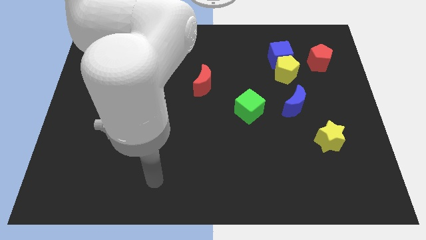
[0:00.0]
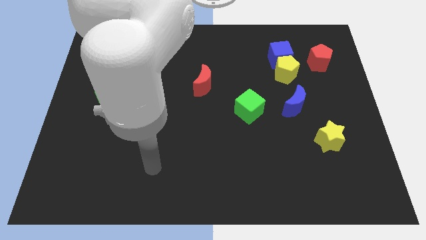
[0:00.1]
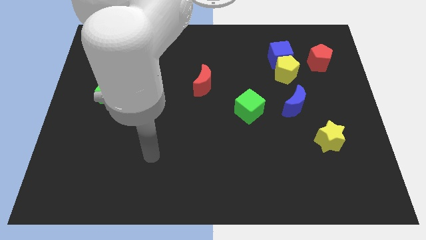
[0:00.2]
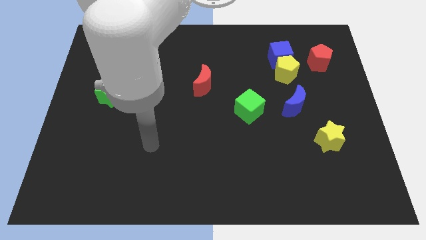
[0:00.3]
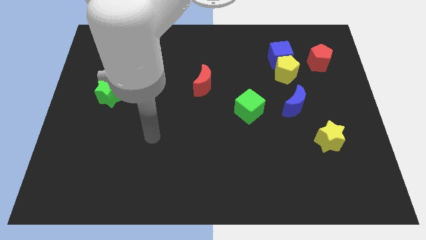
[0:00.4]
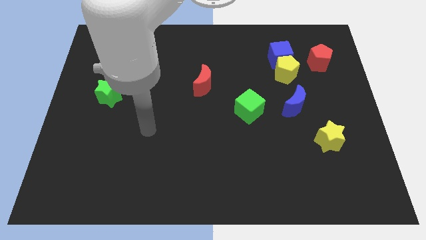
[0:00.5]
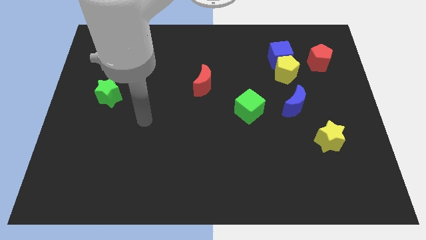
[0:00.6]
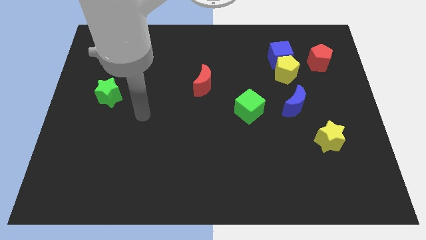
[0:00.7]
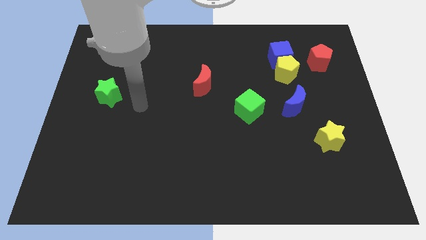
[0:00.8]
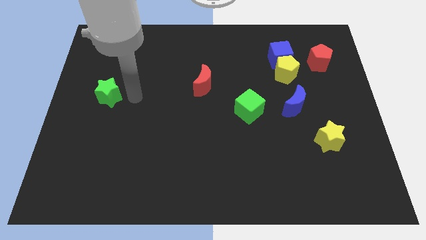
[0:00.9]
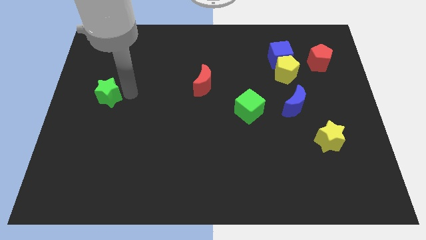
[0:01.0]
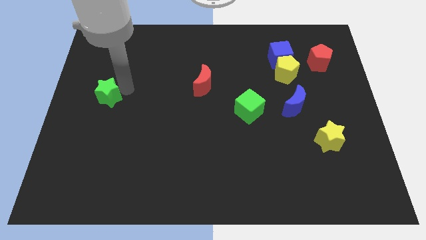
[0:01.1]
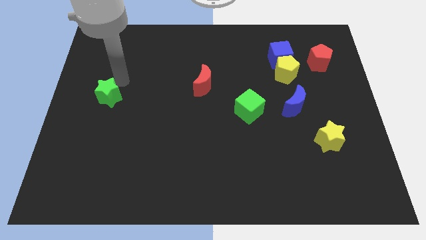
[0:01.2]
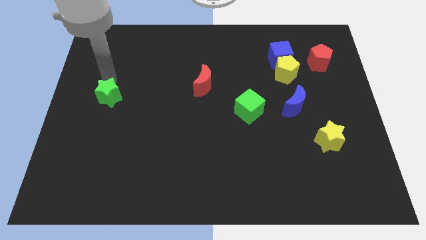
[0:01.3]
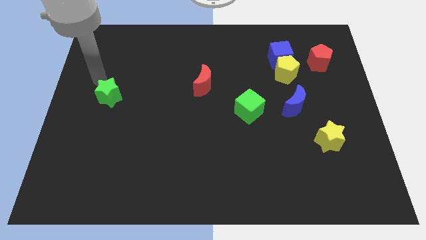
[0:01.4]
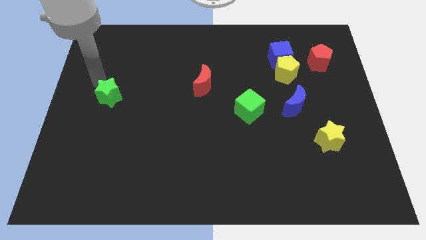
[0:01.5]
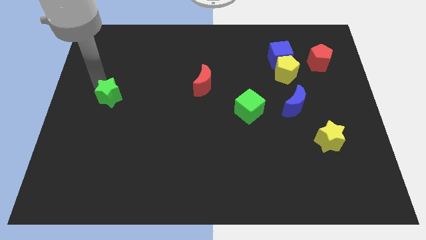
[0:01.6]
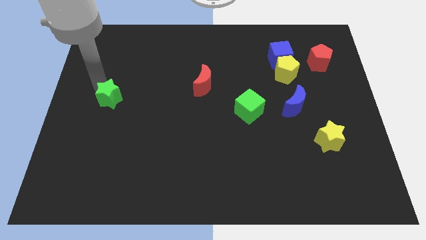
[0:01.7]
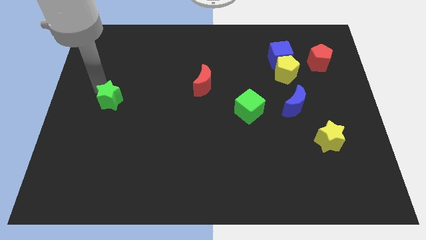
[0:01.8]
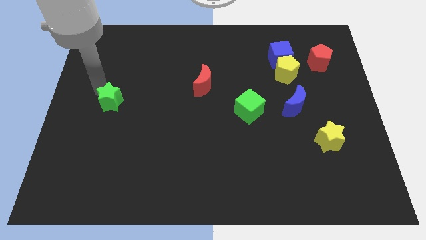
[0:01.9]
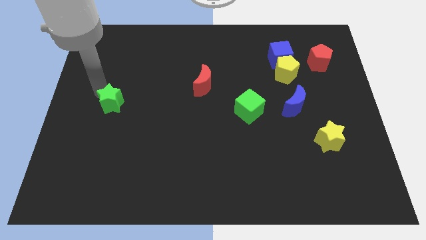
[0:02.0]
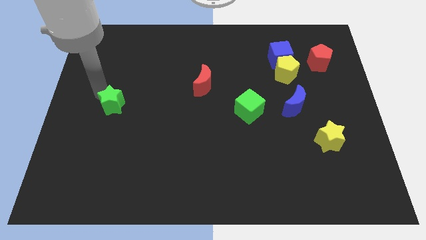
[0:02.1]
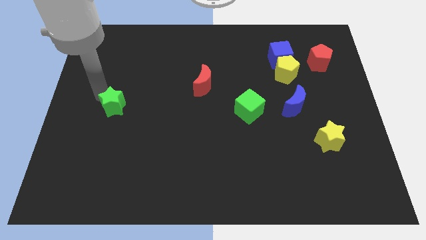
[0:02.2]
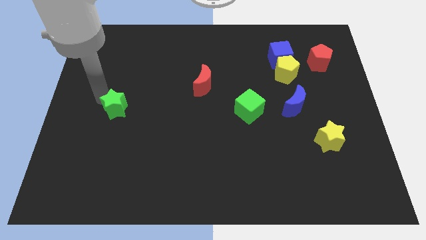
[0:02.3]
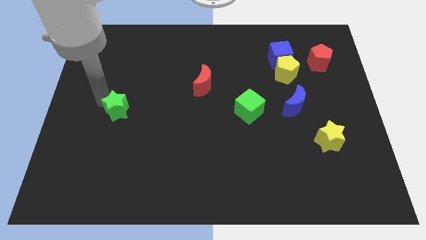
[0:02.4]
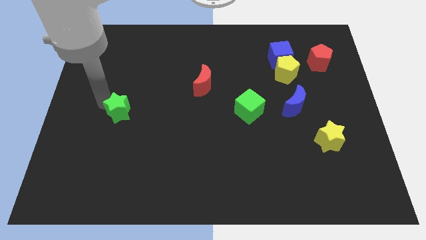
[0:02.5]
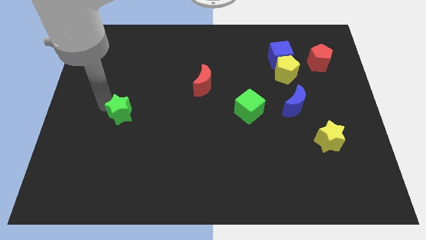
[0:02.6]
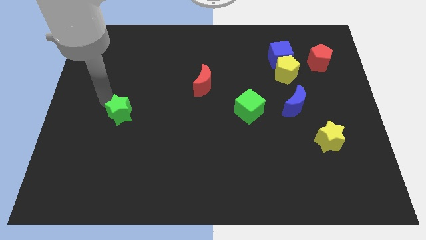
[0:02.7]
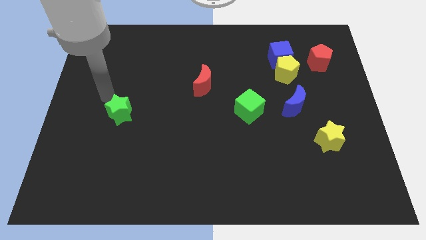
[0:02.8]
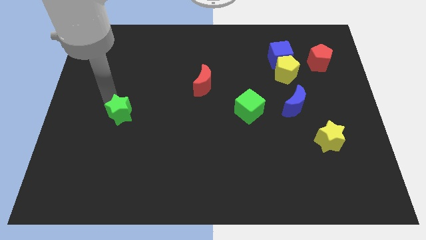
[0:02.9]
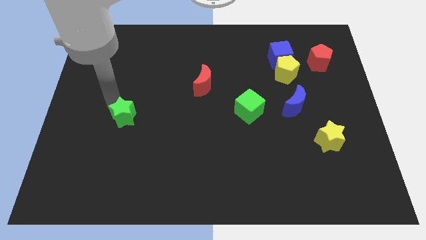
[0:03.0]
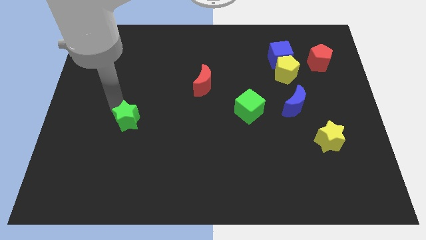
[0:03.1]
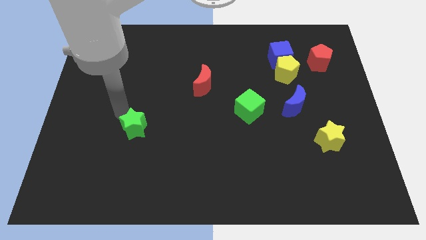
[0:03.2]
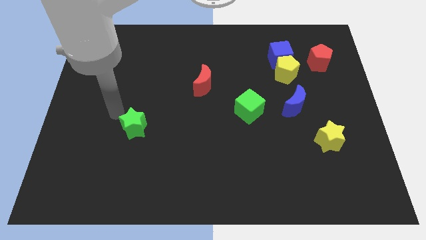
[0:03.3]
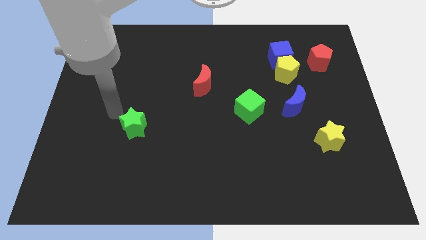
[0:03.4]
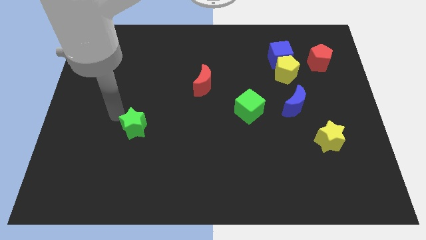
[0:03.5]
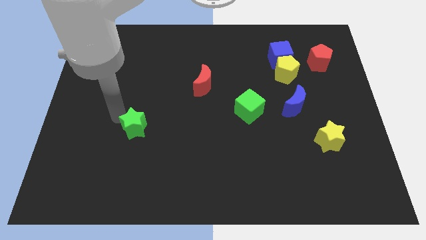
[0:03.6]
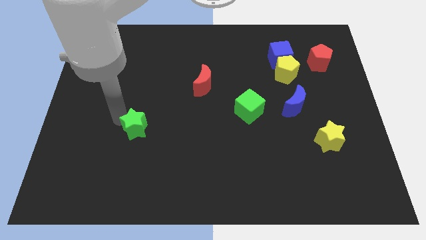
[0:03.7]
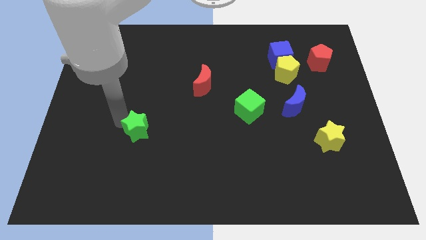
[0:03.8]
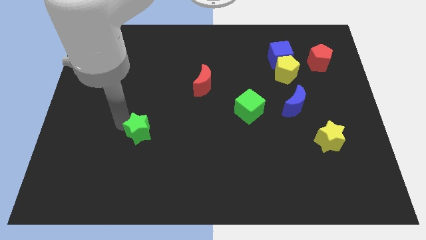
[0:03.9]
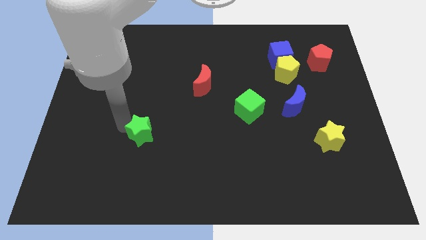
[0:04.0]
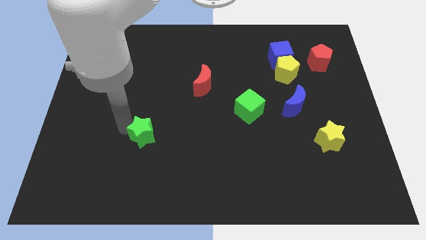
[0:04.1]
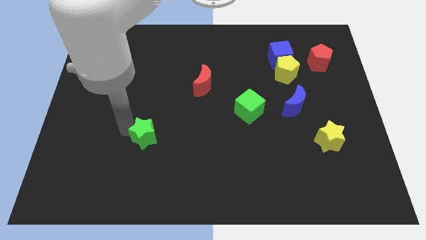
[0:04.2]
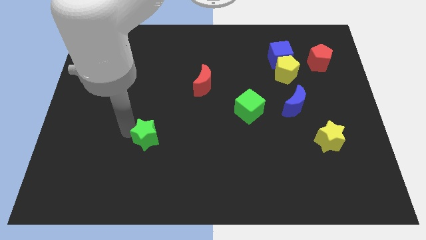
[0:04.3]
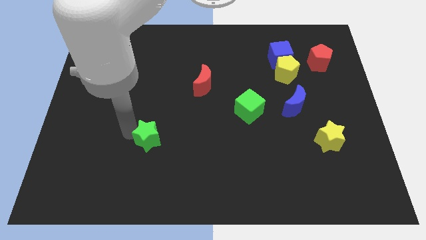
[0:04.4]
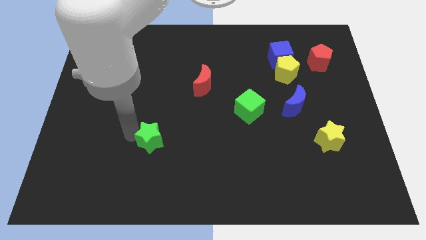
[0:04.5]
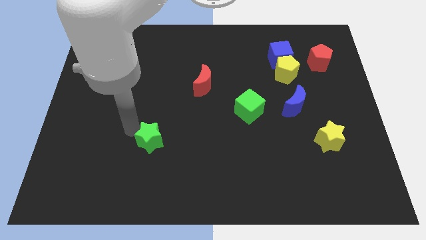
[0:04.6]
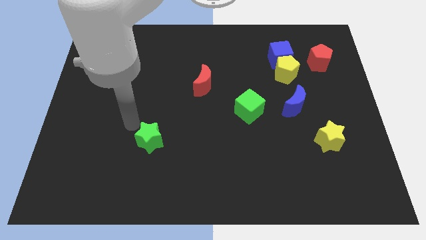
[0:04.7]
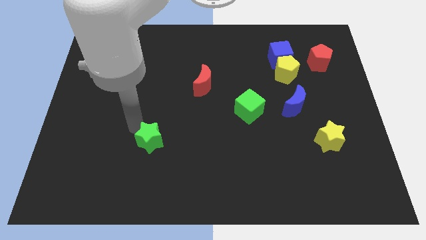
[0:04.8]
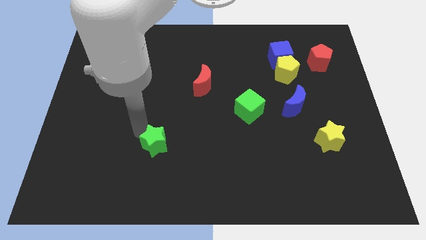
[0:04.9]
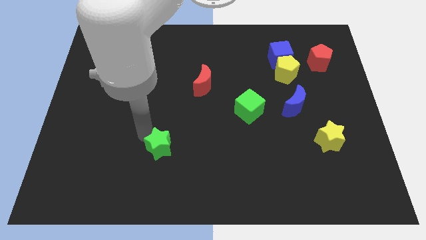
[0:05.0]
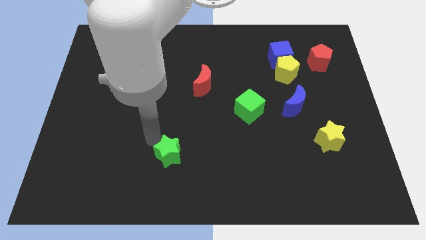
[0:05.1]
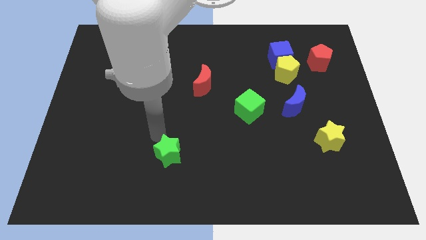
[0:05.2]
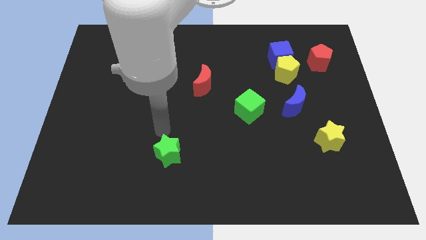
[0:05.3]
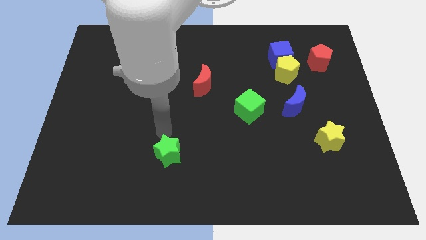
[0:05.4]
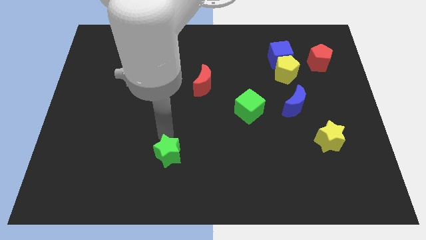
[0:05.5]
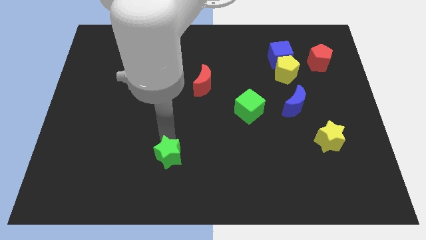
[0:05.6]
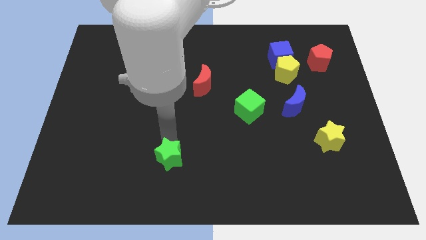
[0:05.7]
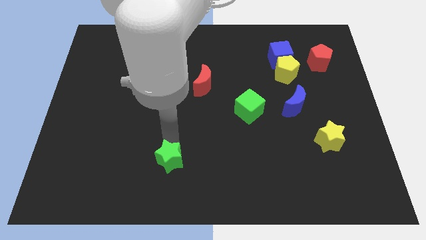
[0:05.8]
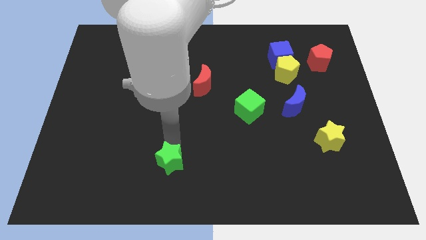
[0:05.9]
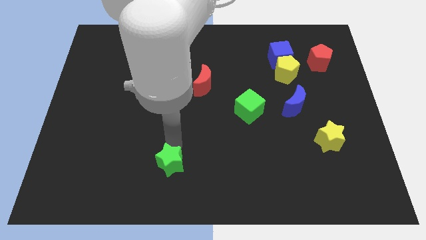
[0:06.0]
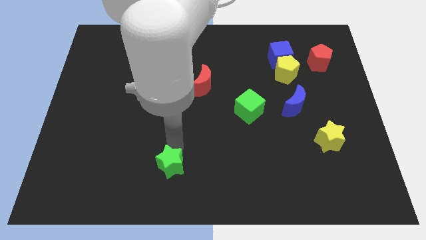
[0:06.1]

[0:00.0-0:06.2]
move the green star to the bottom side

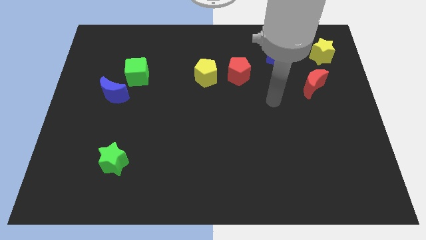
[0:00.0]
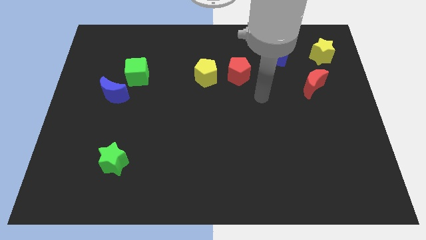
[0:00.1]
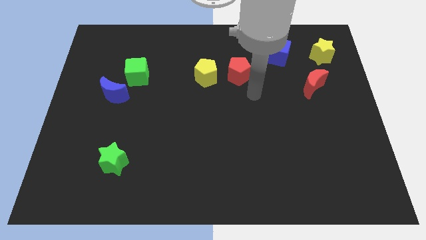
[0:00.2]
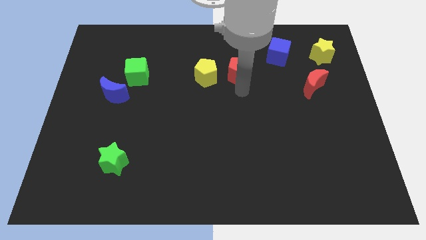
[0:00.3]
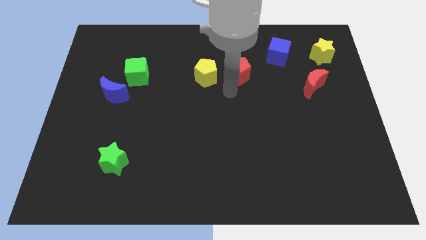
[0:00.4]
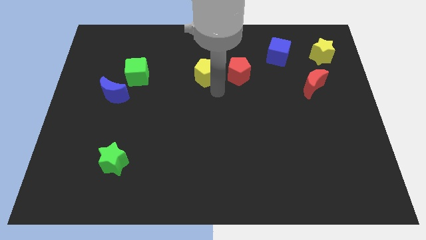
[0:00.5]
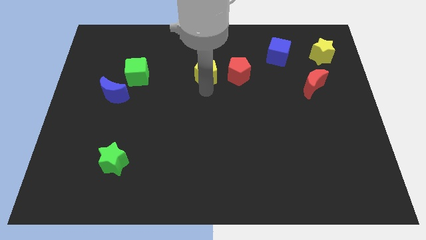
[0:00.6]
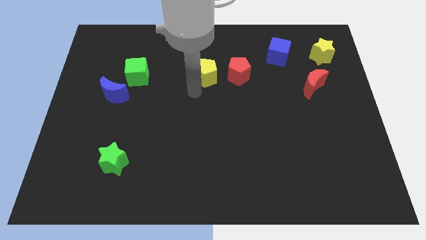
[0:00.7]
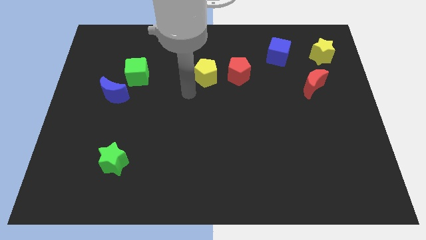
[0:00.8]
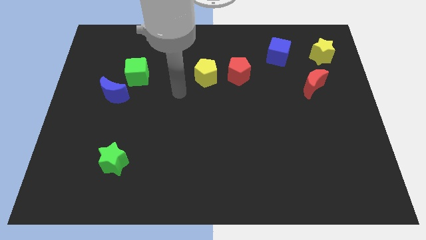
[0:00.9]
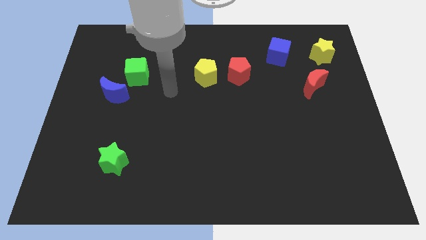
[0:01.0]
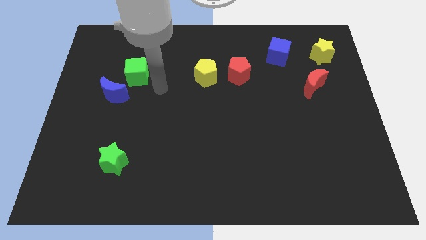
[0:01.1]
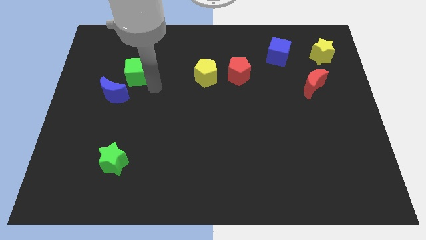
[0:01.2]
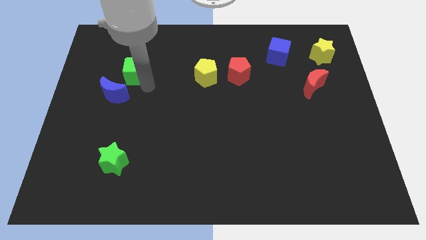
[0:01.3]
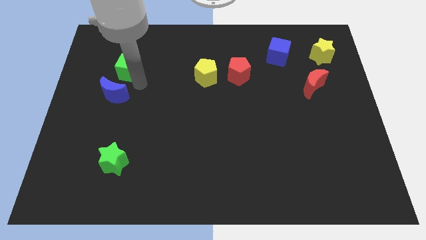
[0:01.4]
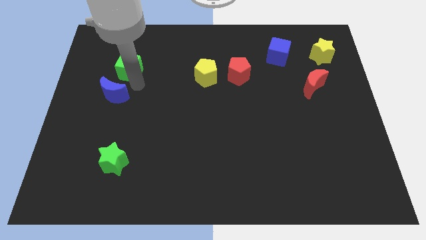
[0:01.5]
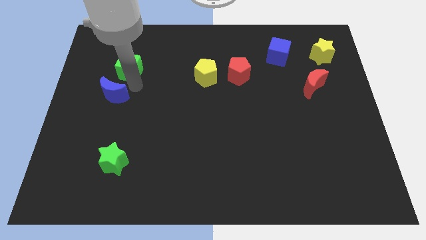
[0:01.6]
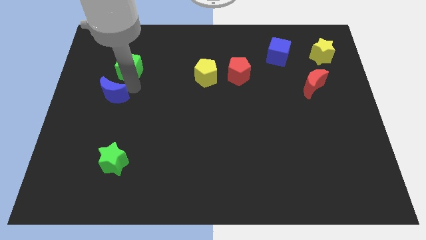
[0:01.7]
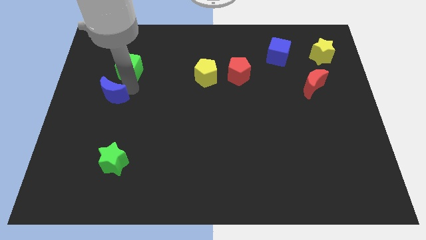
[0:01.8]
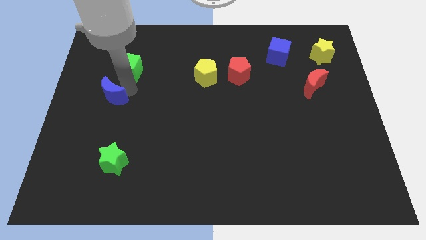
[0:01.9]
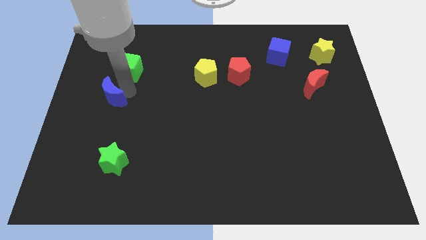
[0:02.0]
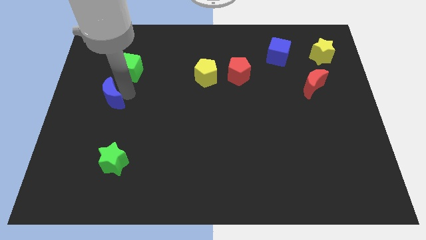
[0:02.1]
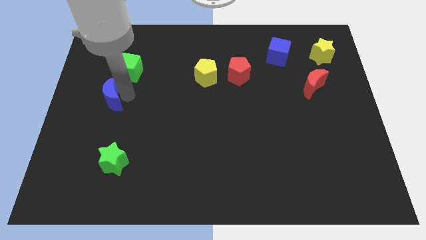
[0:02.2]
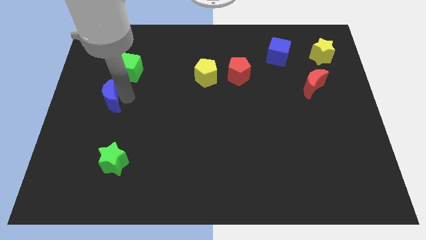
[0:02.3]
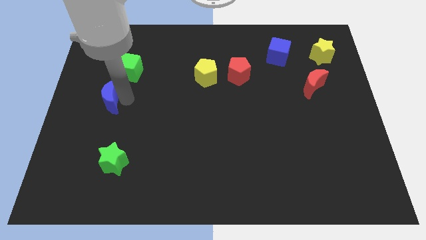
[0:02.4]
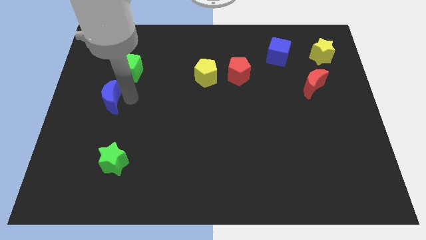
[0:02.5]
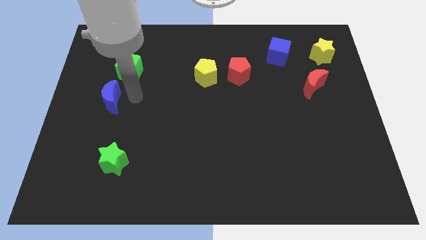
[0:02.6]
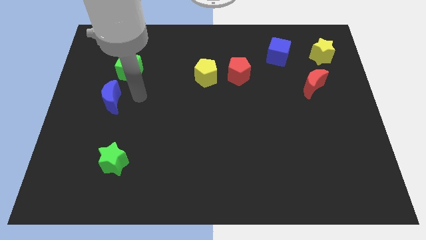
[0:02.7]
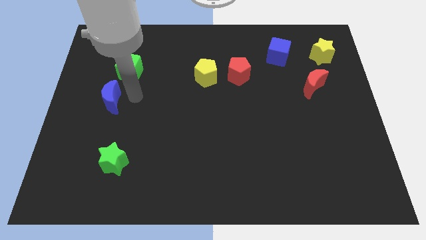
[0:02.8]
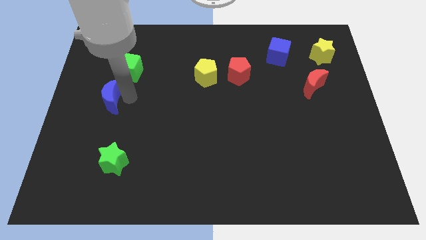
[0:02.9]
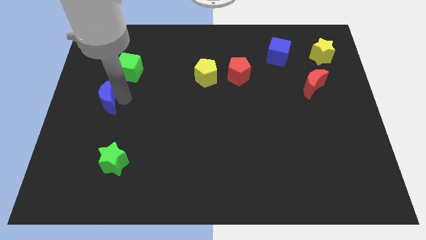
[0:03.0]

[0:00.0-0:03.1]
slide the blue moon to the center left
